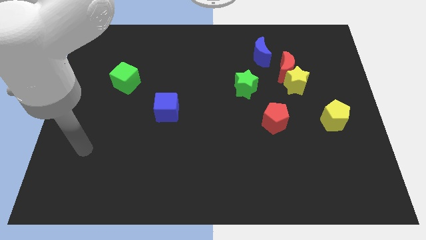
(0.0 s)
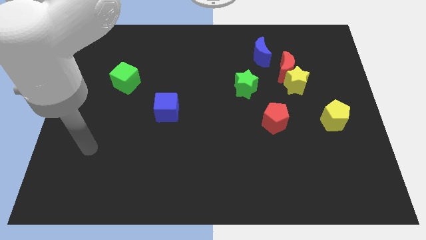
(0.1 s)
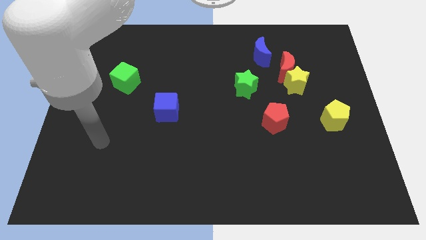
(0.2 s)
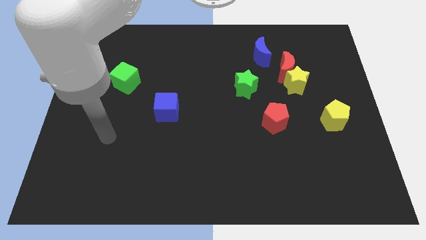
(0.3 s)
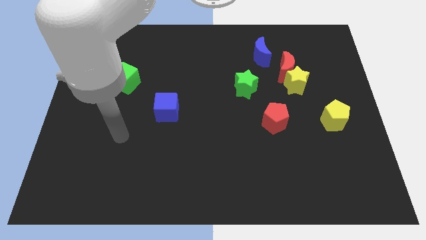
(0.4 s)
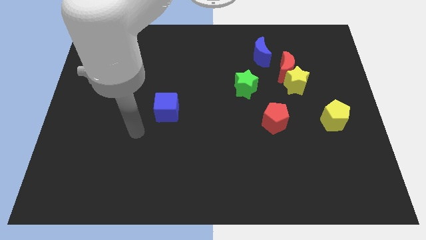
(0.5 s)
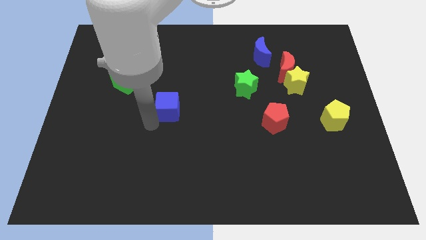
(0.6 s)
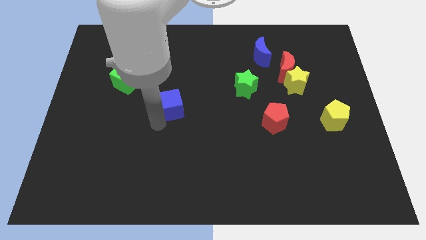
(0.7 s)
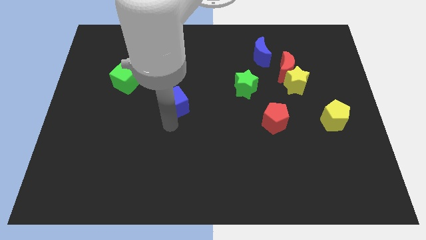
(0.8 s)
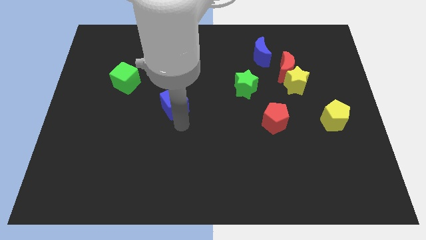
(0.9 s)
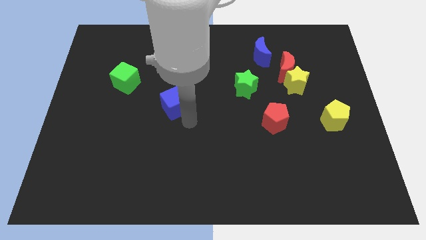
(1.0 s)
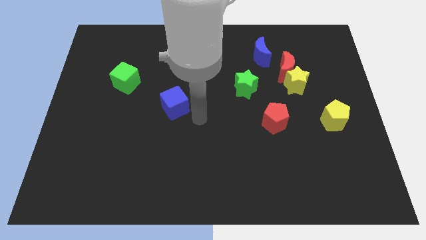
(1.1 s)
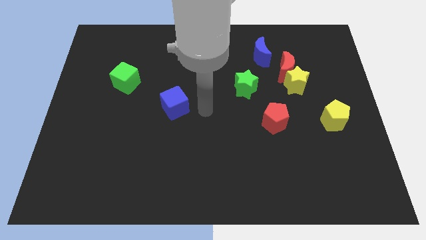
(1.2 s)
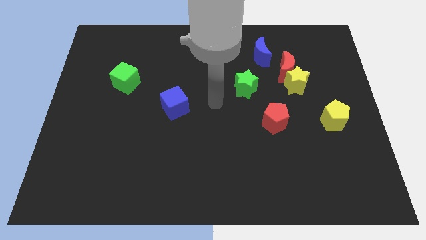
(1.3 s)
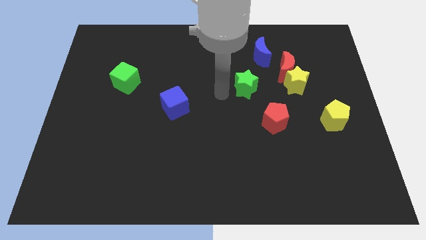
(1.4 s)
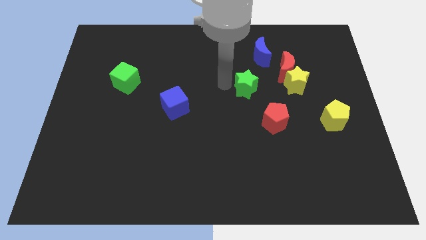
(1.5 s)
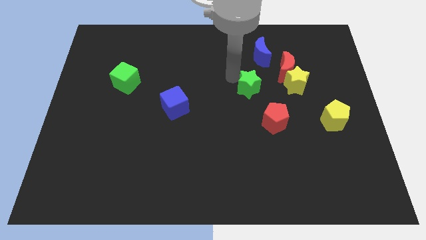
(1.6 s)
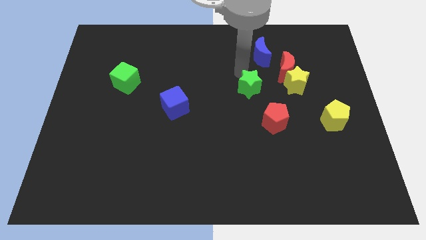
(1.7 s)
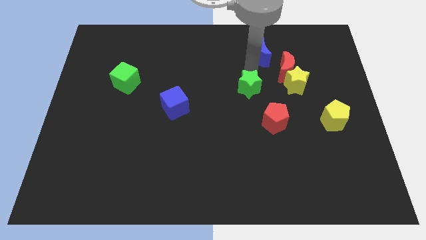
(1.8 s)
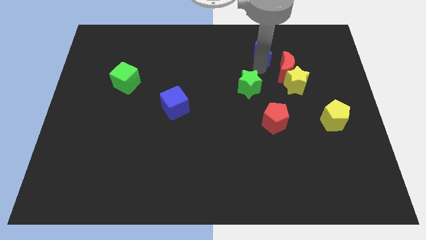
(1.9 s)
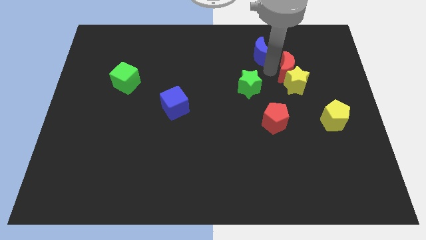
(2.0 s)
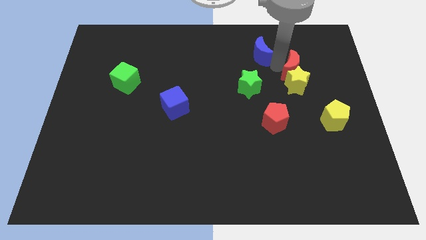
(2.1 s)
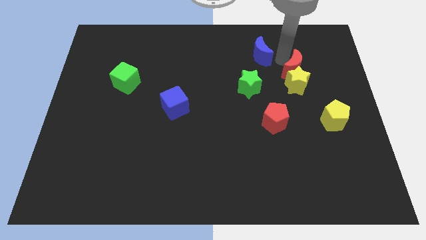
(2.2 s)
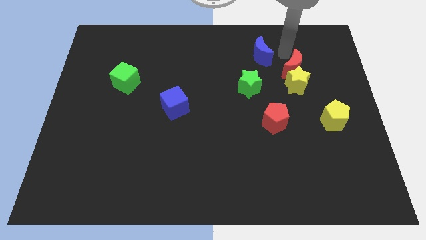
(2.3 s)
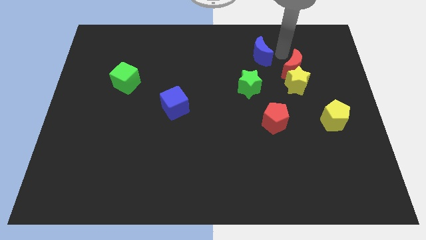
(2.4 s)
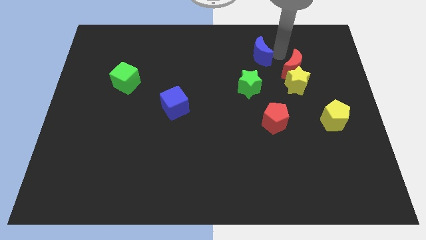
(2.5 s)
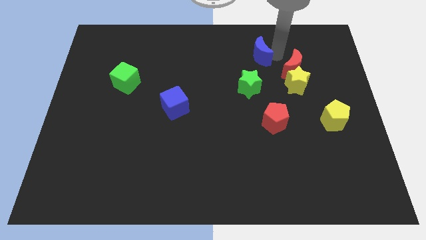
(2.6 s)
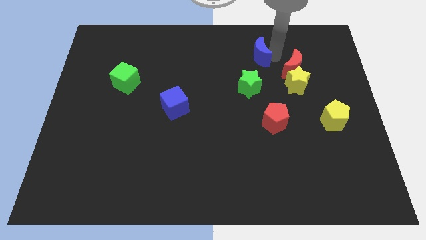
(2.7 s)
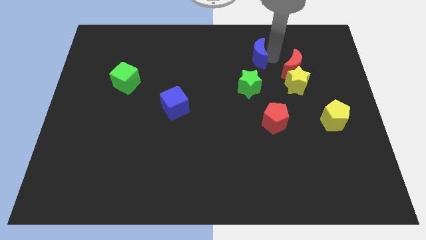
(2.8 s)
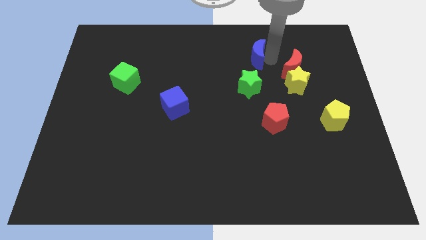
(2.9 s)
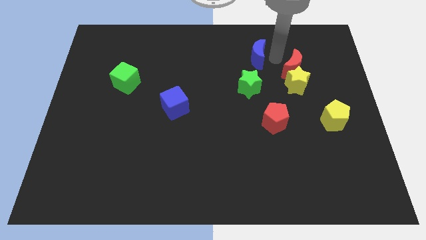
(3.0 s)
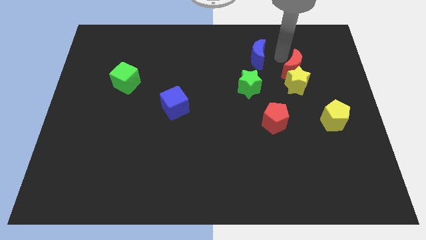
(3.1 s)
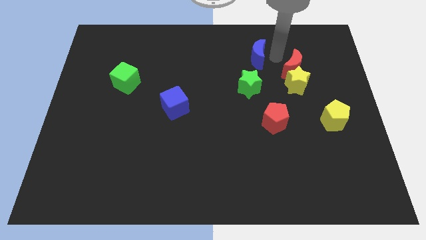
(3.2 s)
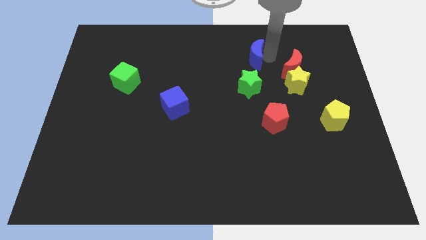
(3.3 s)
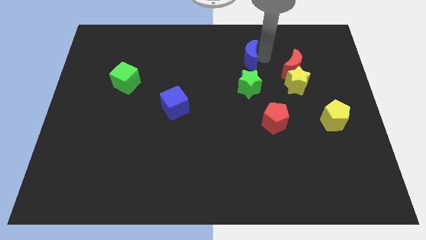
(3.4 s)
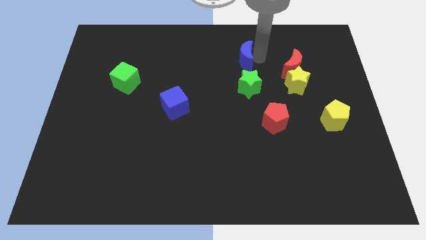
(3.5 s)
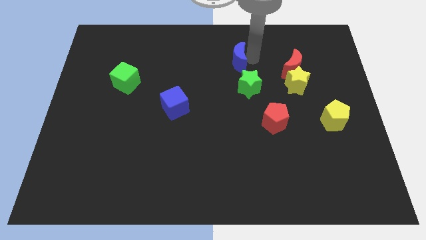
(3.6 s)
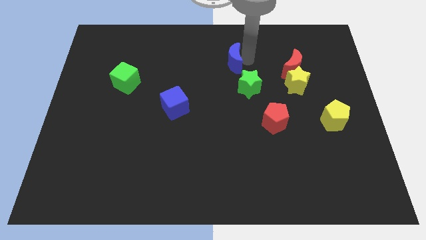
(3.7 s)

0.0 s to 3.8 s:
slide the blue moon a little left

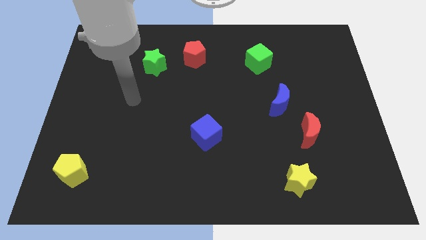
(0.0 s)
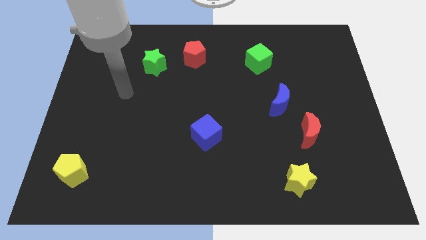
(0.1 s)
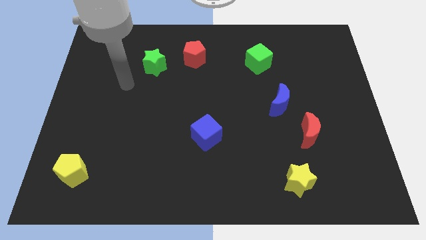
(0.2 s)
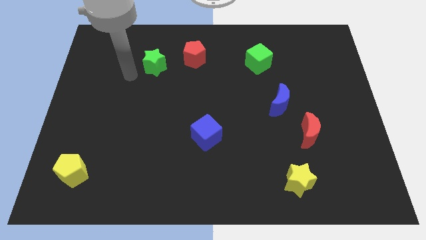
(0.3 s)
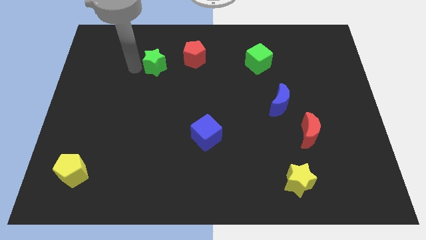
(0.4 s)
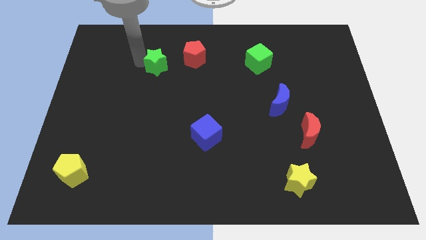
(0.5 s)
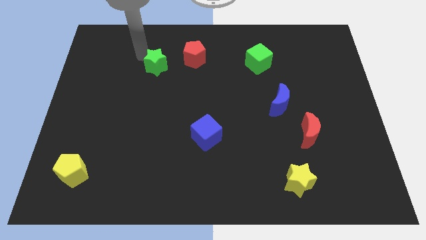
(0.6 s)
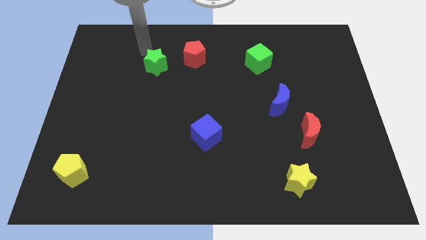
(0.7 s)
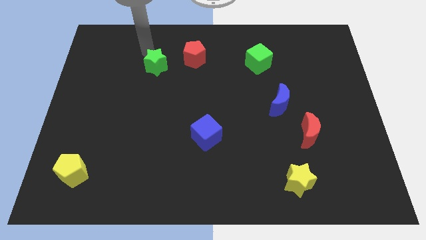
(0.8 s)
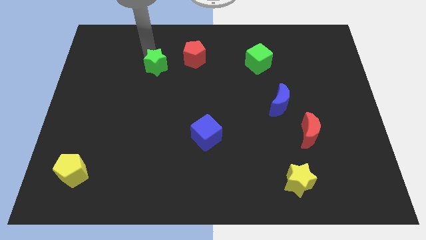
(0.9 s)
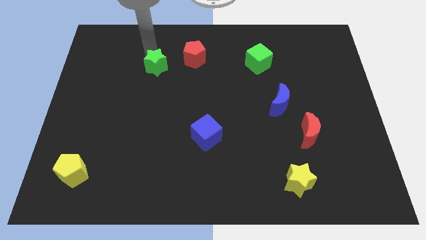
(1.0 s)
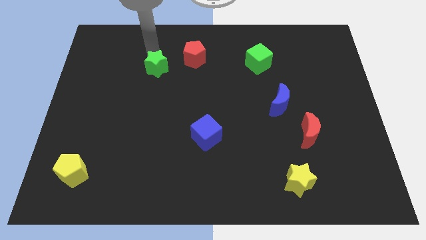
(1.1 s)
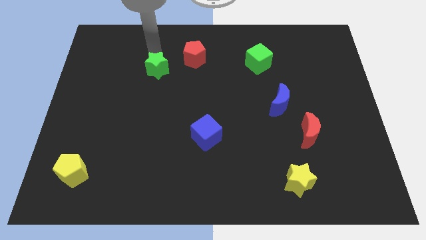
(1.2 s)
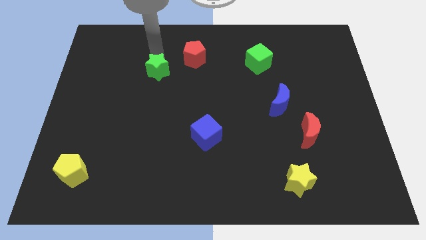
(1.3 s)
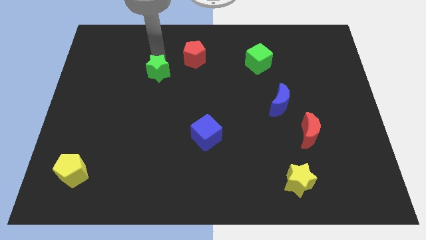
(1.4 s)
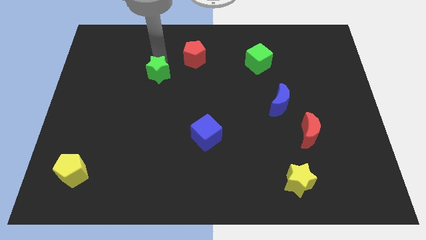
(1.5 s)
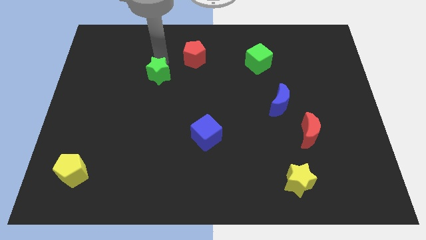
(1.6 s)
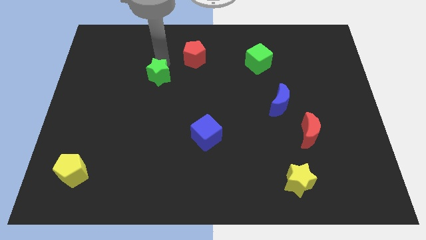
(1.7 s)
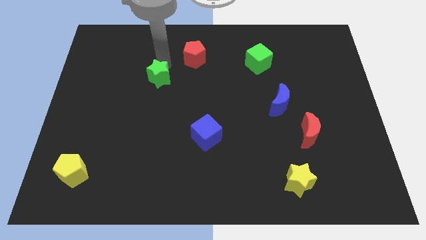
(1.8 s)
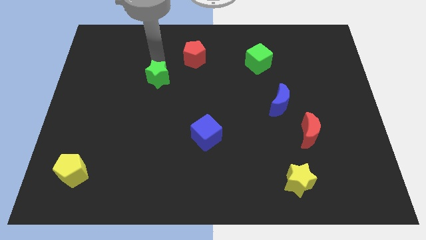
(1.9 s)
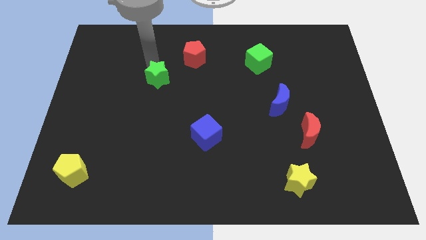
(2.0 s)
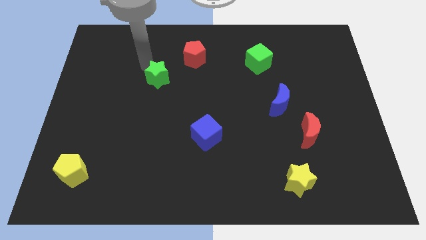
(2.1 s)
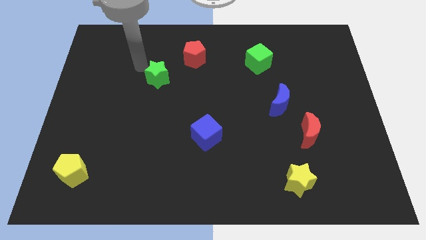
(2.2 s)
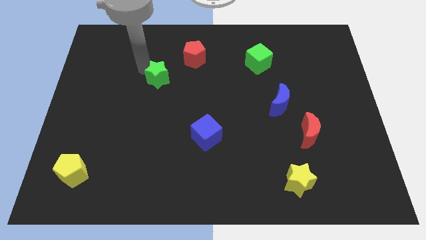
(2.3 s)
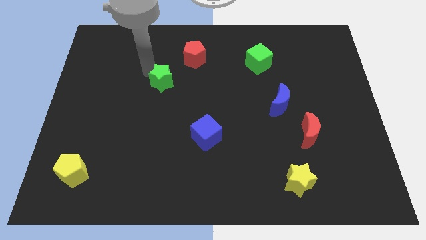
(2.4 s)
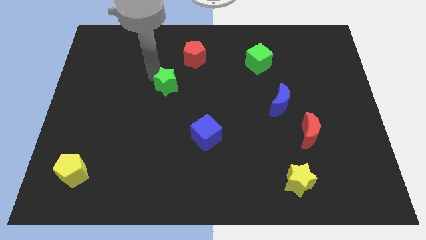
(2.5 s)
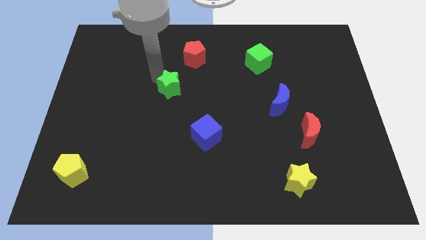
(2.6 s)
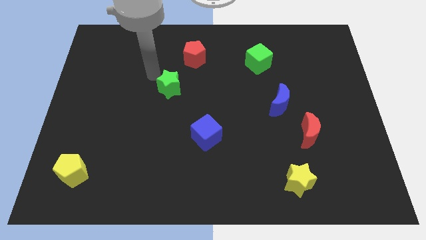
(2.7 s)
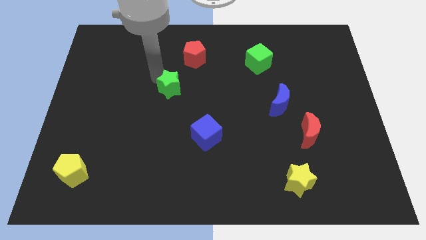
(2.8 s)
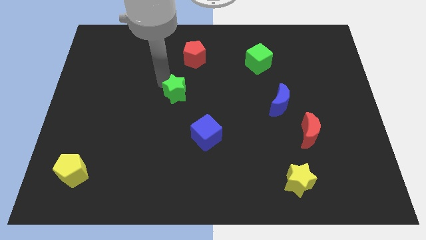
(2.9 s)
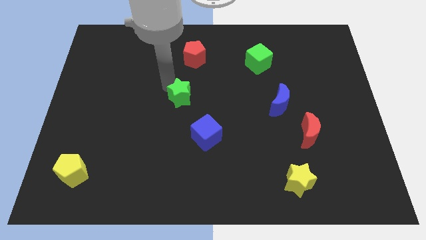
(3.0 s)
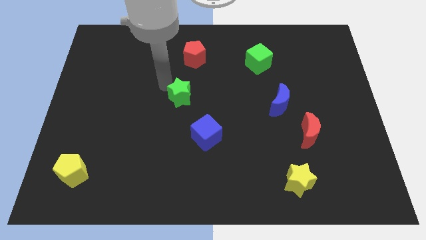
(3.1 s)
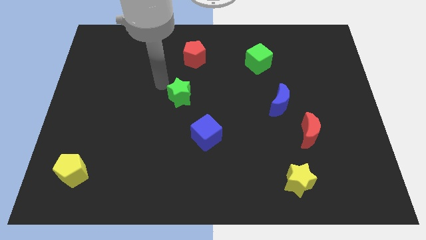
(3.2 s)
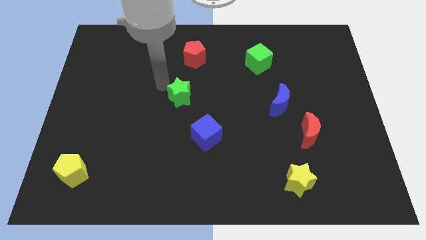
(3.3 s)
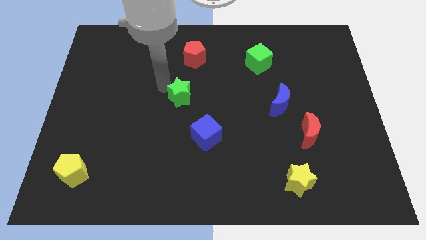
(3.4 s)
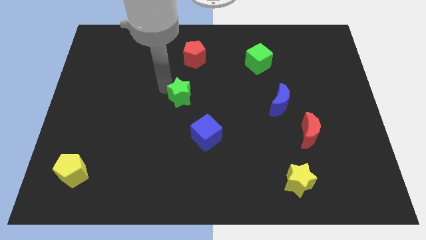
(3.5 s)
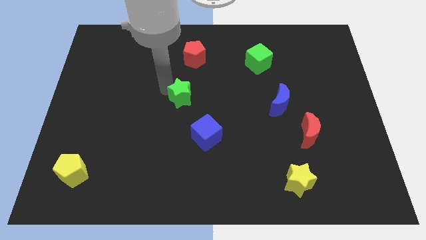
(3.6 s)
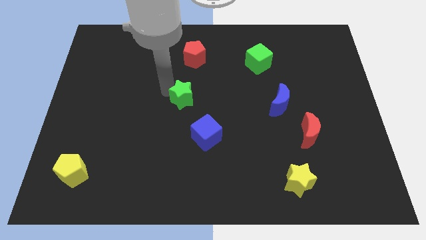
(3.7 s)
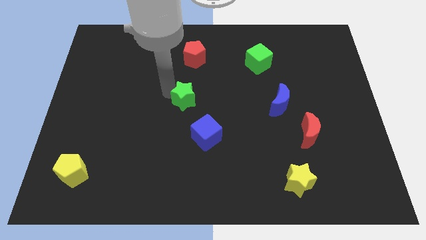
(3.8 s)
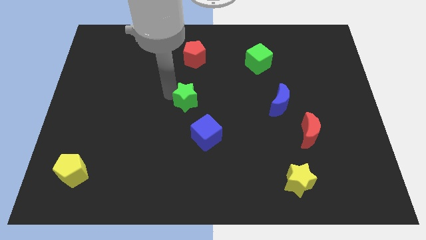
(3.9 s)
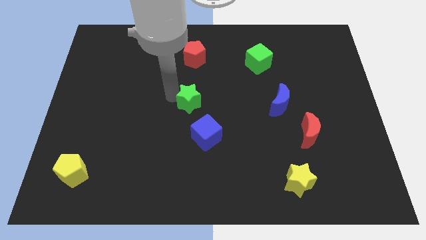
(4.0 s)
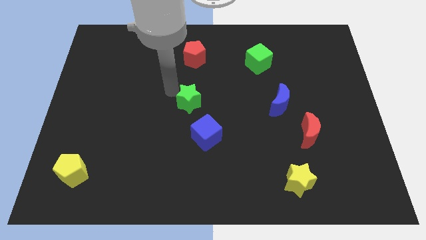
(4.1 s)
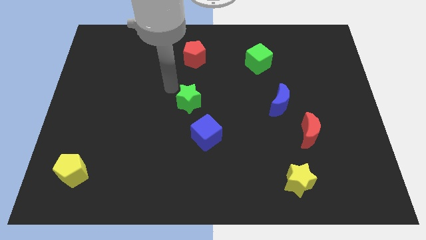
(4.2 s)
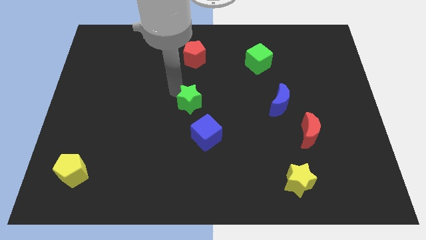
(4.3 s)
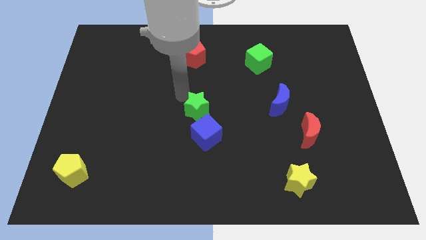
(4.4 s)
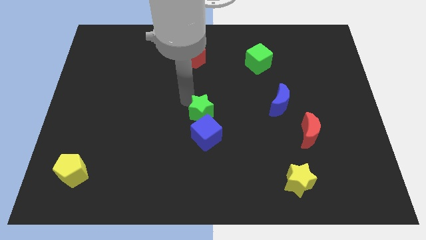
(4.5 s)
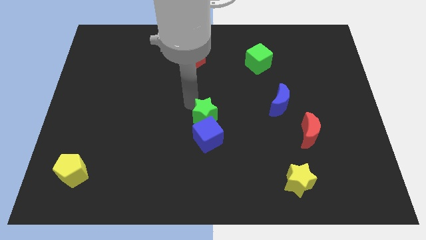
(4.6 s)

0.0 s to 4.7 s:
push the green star downwards and right diagonally
